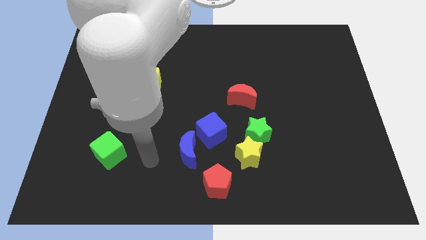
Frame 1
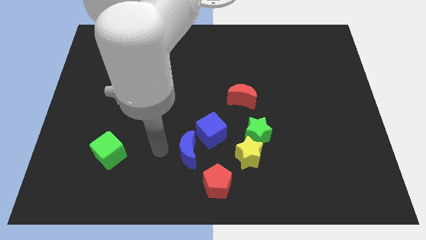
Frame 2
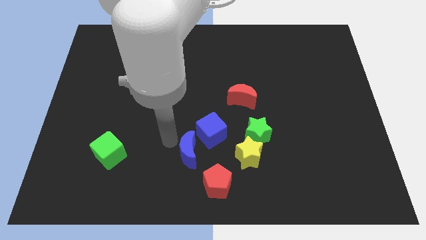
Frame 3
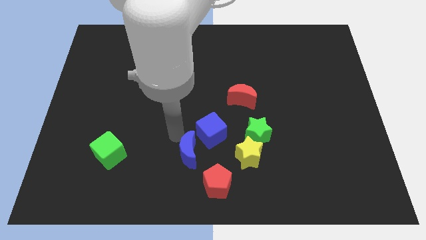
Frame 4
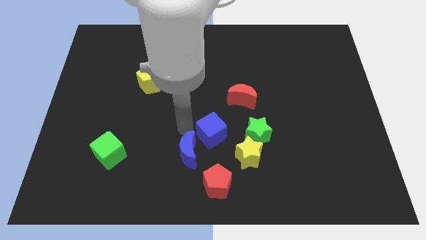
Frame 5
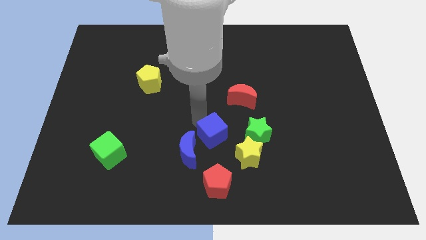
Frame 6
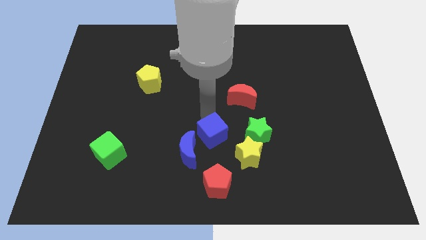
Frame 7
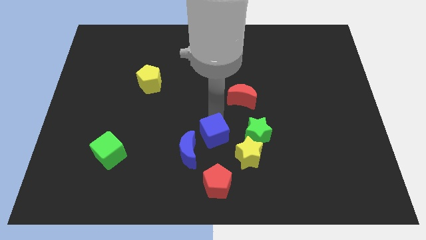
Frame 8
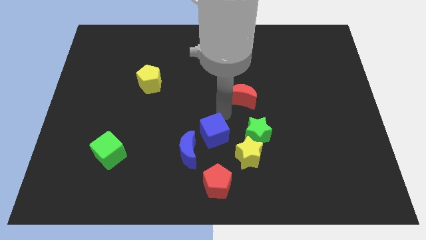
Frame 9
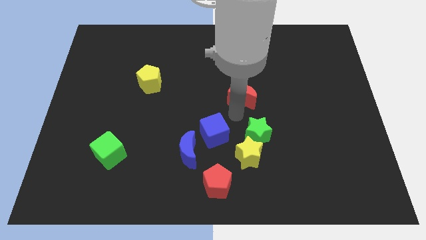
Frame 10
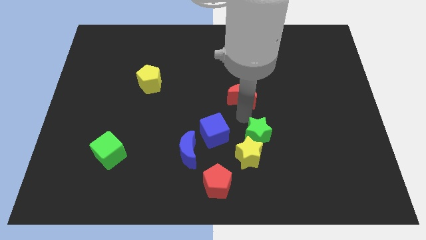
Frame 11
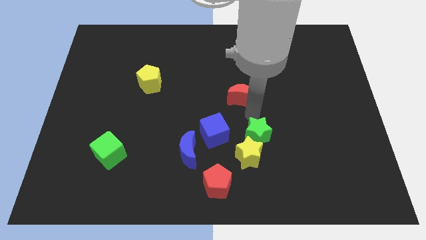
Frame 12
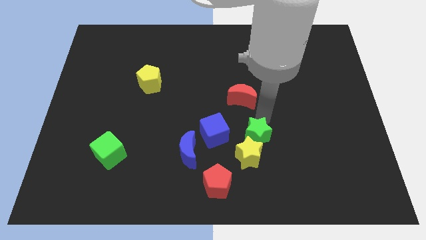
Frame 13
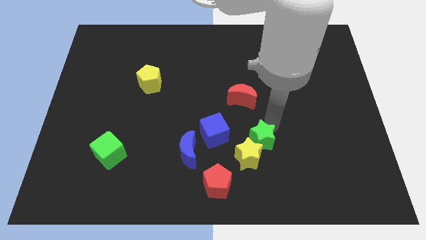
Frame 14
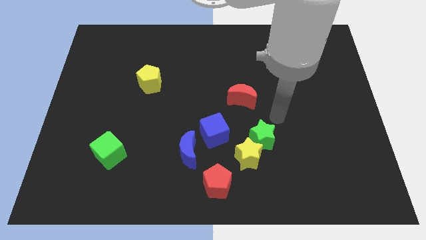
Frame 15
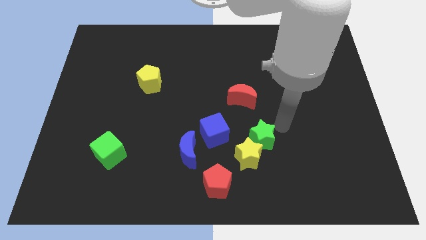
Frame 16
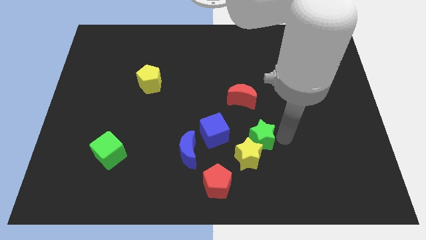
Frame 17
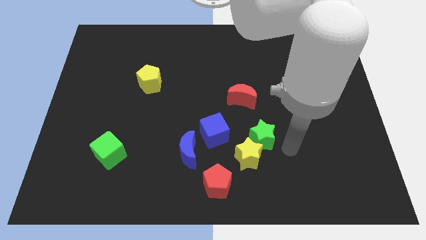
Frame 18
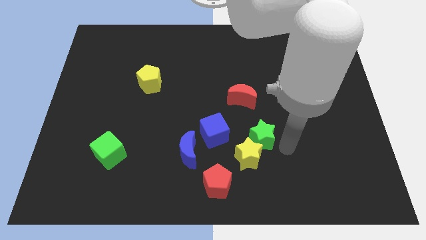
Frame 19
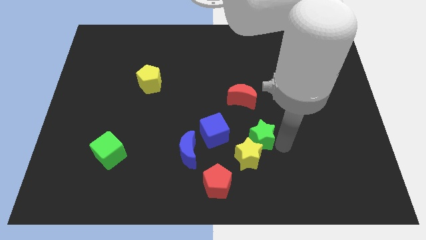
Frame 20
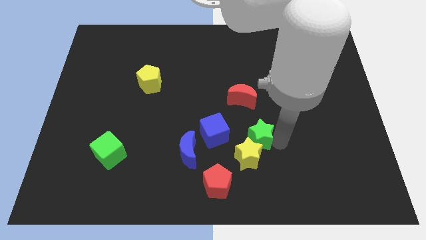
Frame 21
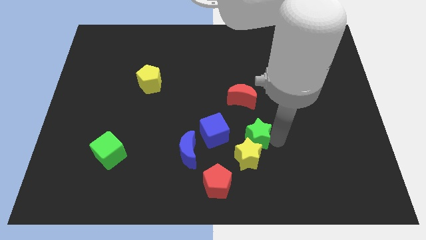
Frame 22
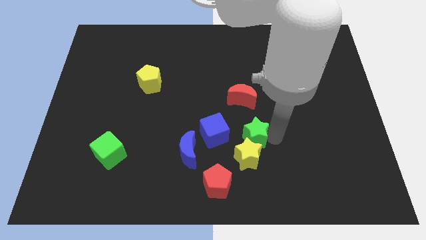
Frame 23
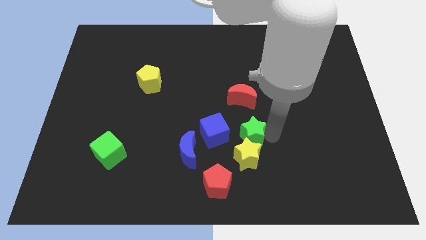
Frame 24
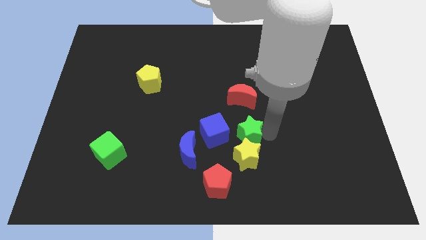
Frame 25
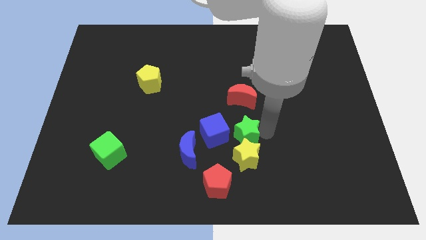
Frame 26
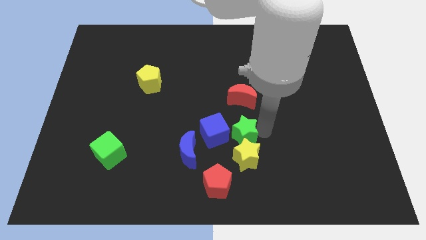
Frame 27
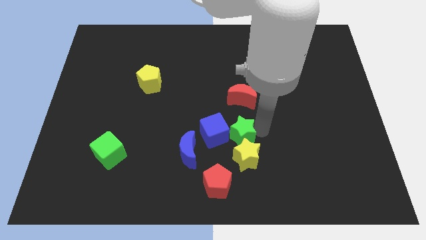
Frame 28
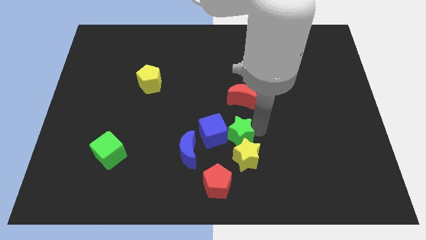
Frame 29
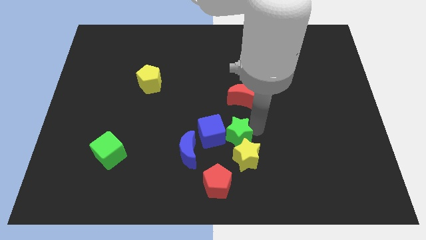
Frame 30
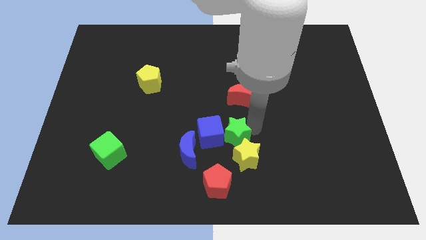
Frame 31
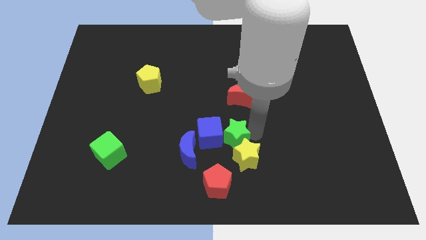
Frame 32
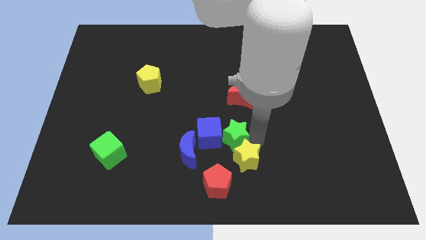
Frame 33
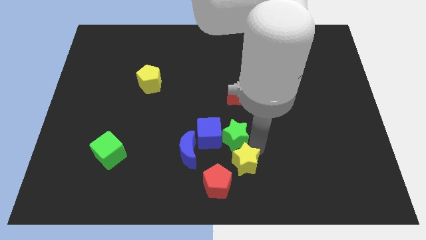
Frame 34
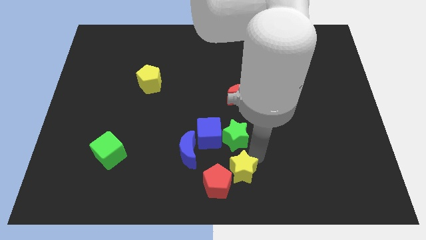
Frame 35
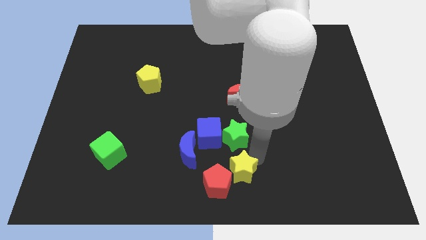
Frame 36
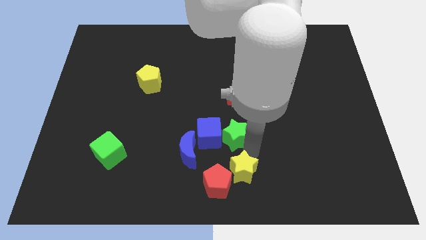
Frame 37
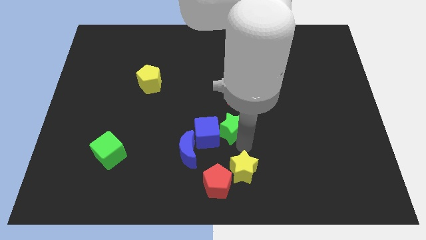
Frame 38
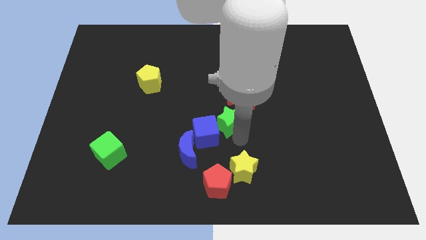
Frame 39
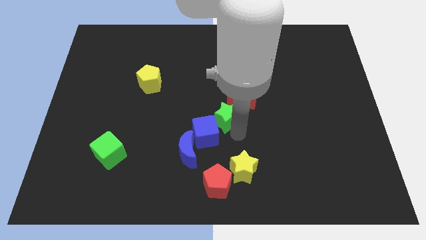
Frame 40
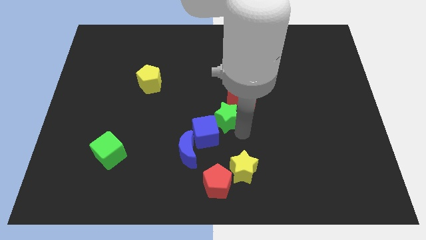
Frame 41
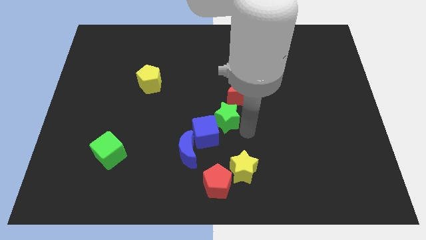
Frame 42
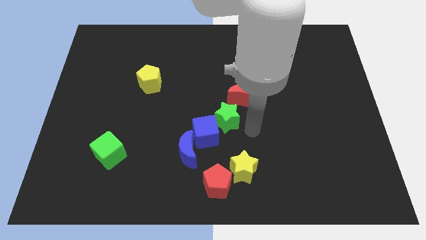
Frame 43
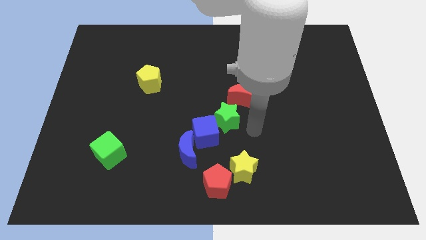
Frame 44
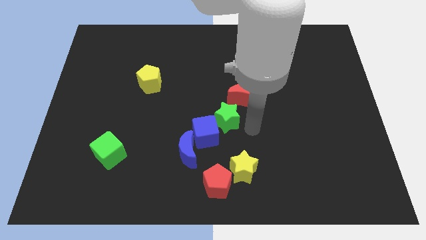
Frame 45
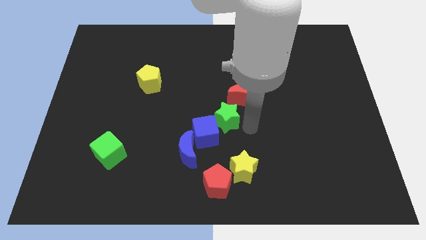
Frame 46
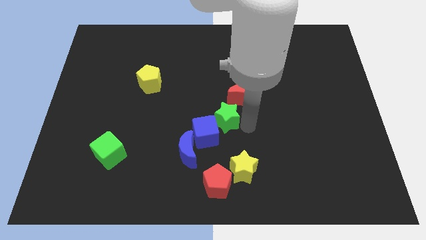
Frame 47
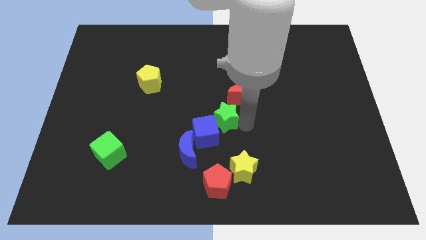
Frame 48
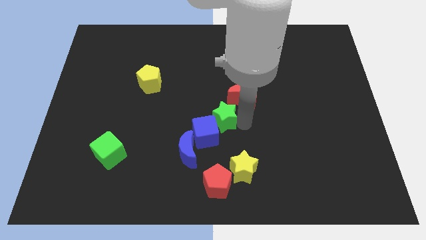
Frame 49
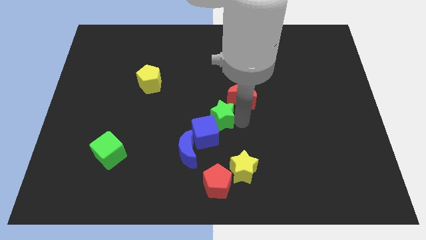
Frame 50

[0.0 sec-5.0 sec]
slightly push the green star to the left

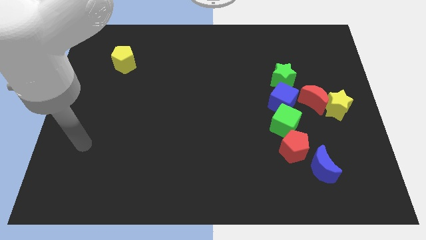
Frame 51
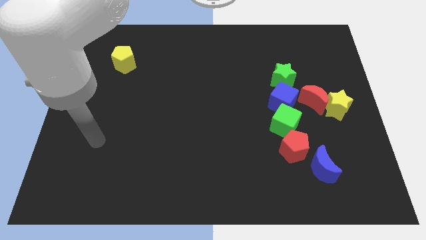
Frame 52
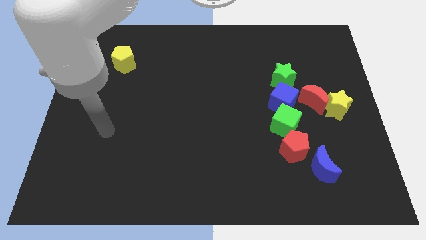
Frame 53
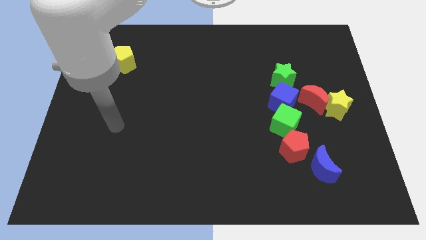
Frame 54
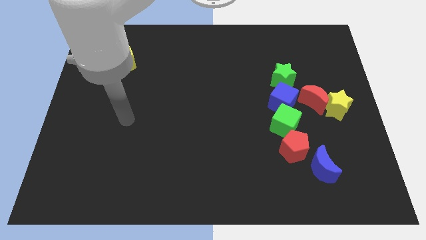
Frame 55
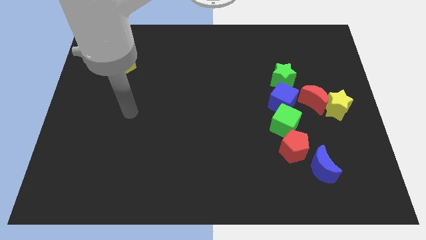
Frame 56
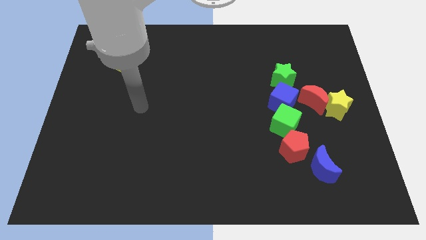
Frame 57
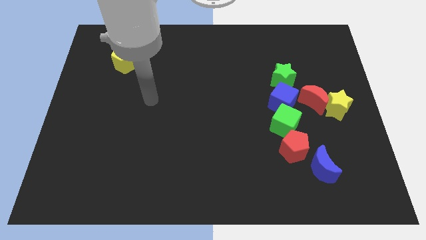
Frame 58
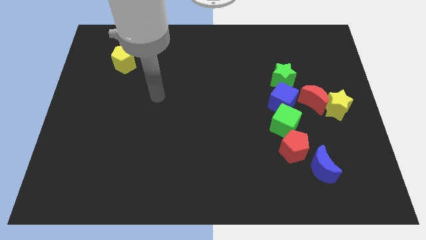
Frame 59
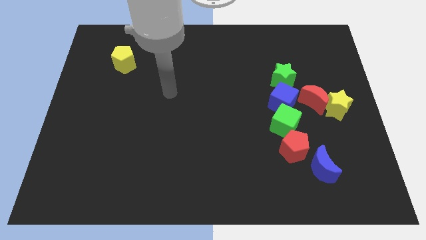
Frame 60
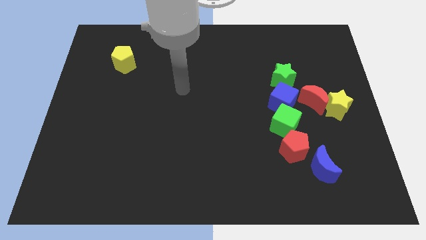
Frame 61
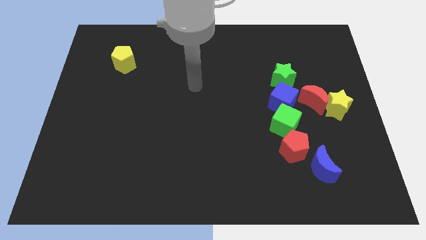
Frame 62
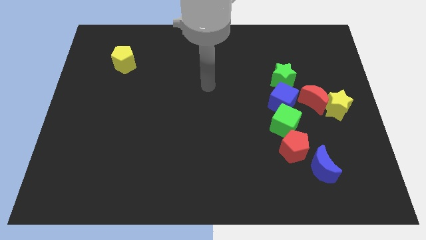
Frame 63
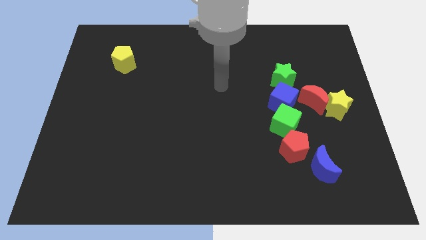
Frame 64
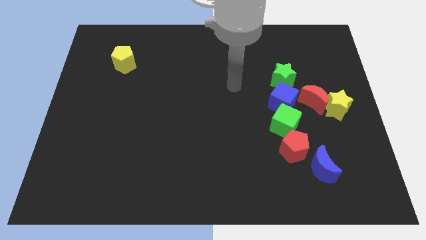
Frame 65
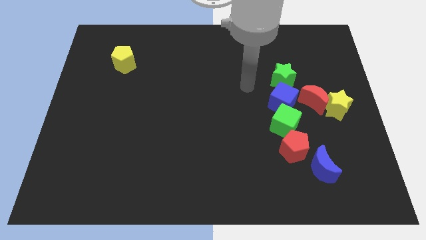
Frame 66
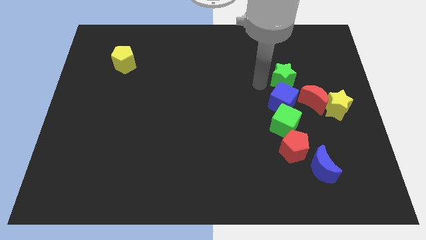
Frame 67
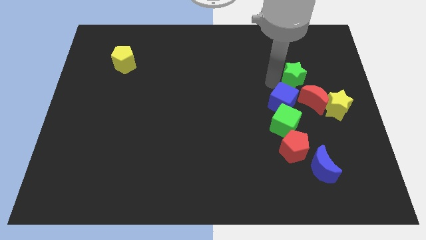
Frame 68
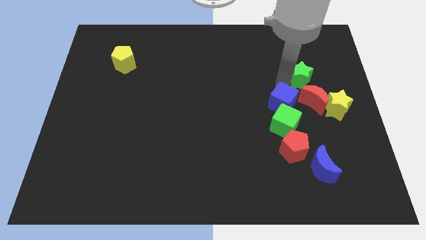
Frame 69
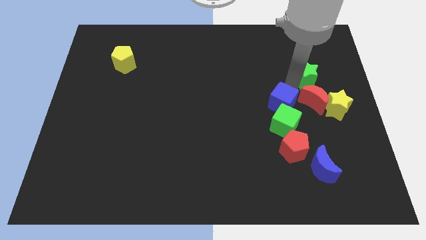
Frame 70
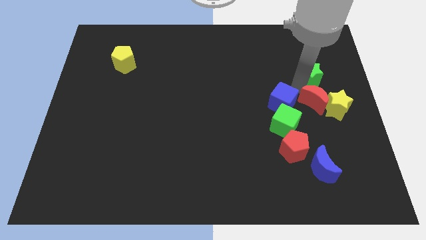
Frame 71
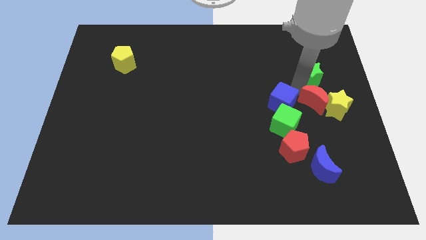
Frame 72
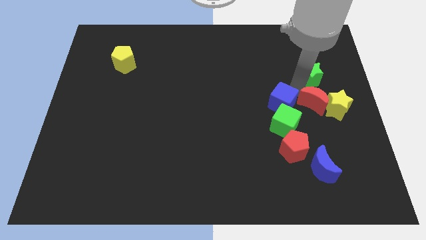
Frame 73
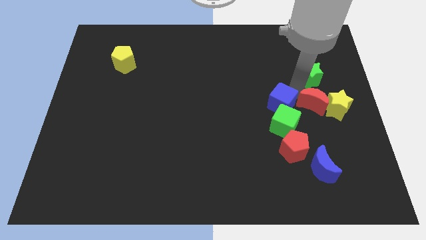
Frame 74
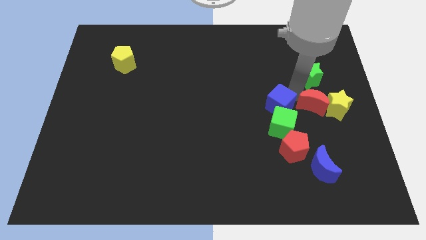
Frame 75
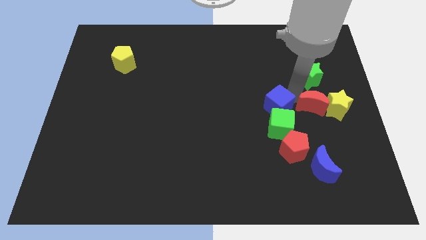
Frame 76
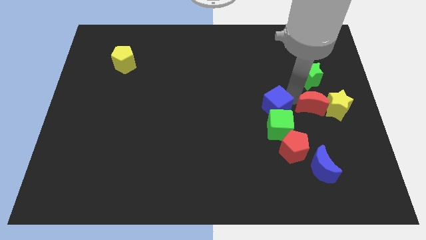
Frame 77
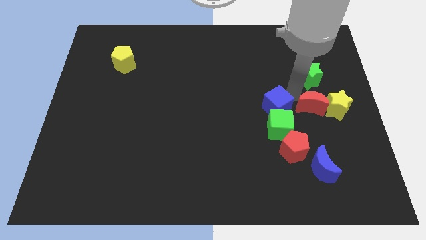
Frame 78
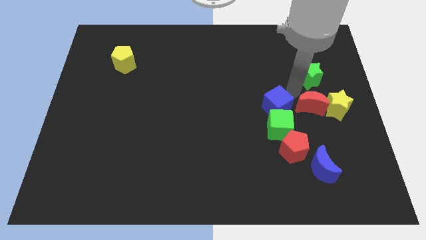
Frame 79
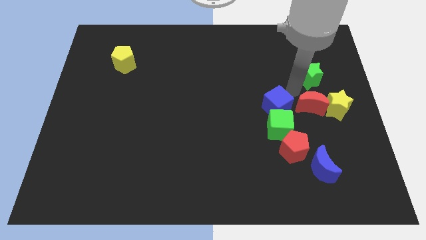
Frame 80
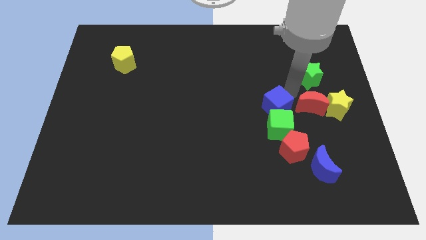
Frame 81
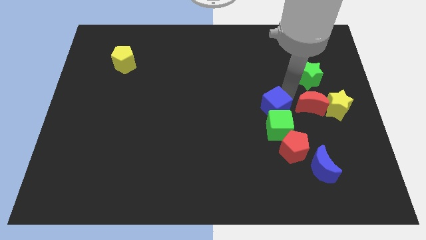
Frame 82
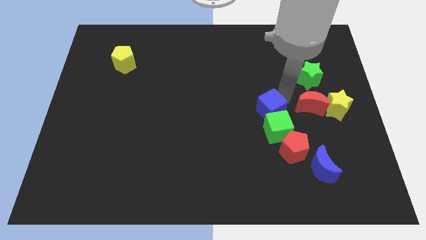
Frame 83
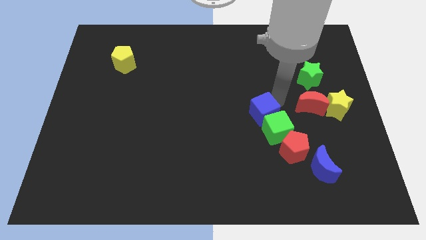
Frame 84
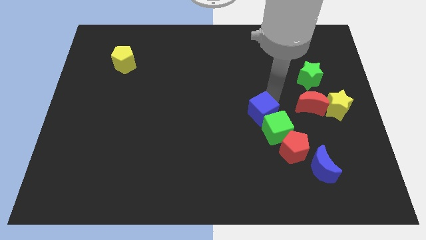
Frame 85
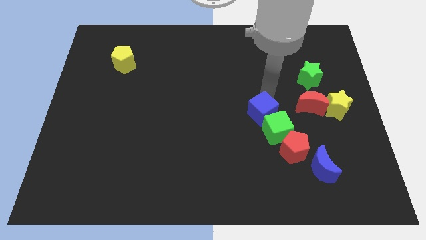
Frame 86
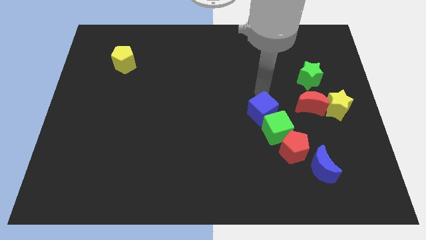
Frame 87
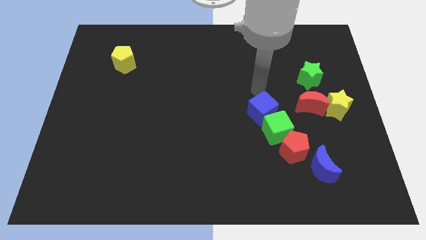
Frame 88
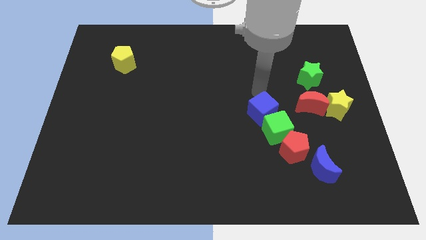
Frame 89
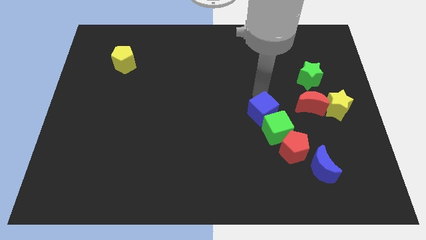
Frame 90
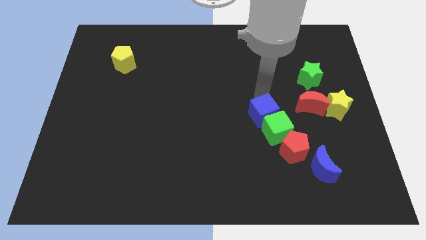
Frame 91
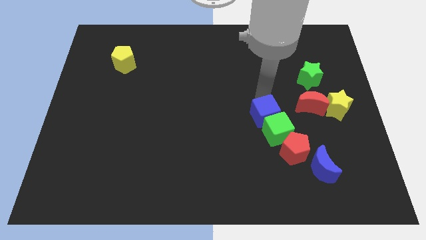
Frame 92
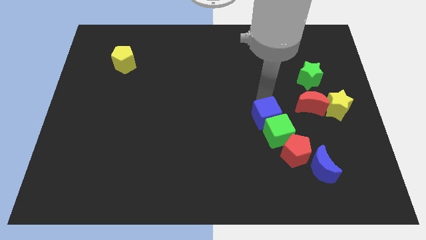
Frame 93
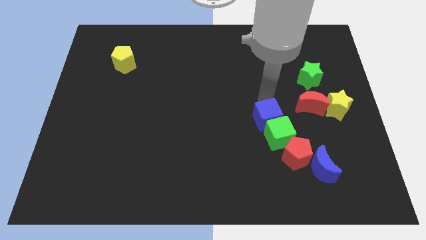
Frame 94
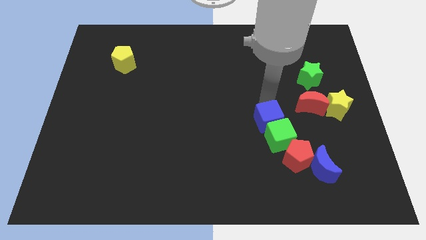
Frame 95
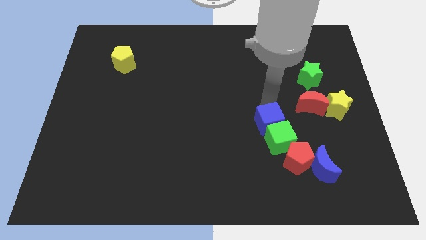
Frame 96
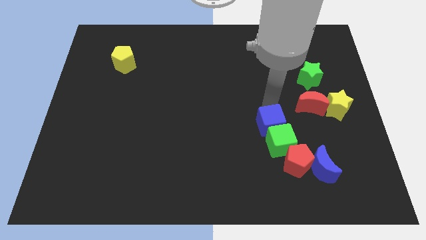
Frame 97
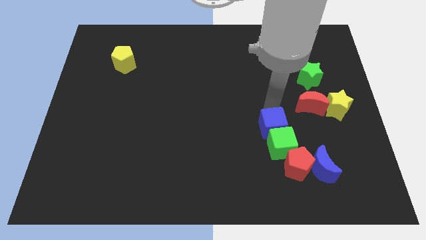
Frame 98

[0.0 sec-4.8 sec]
push the blue cube somewhat downwards
